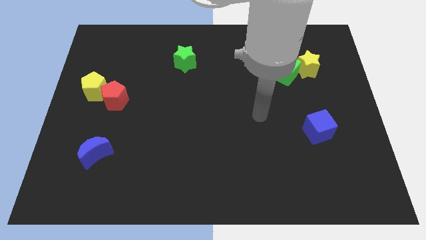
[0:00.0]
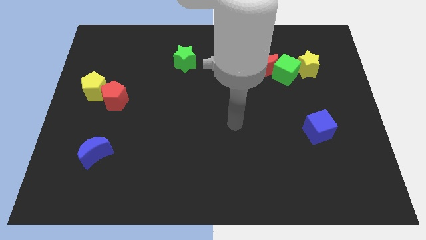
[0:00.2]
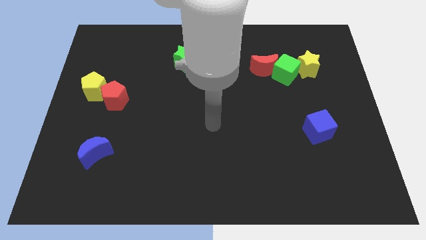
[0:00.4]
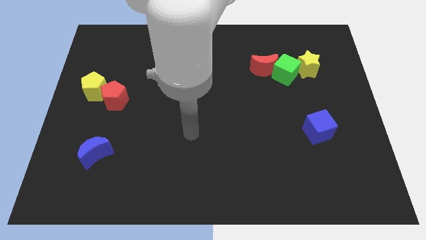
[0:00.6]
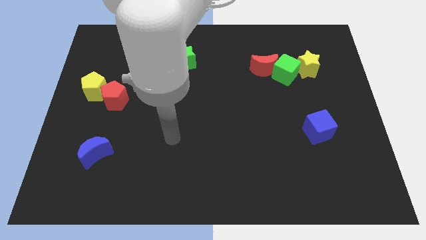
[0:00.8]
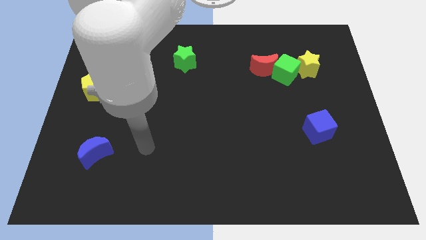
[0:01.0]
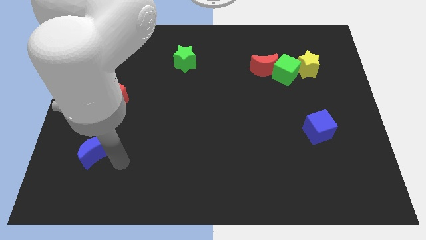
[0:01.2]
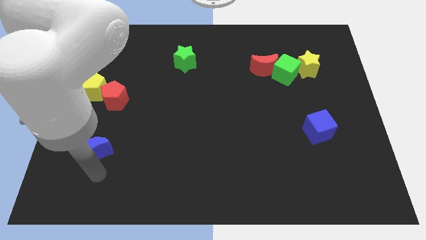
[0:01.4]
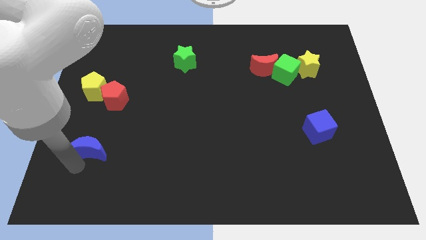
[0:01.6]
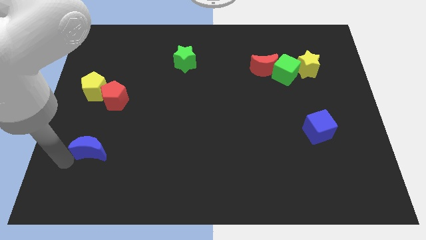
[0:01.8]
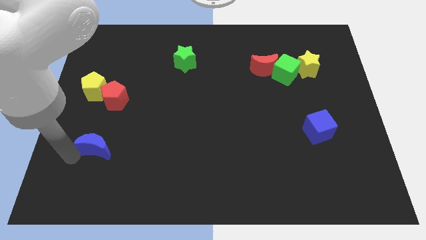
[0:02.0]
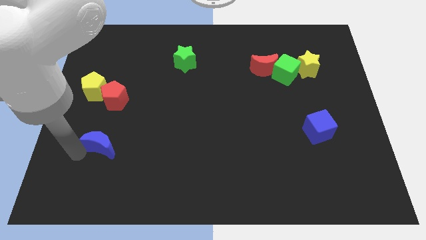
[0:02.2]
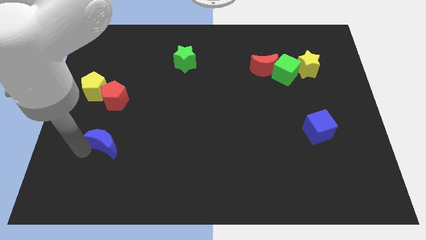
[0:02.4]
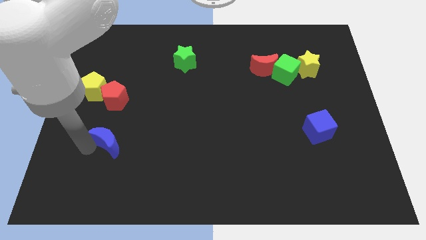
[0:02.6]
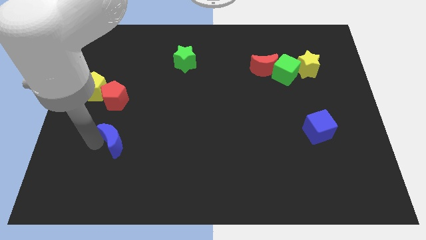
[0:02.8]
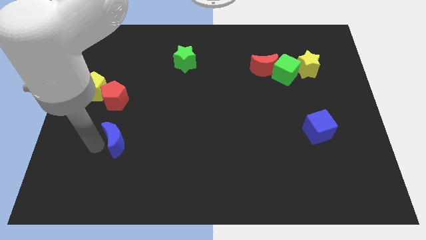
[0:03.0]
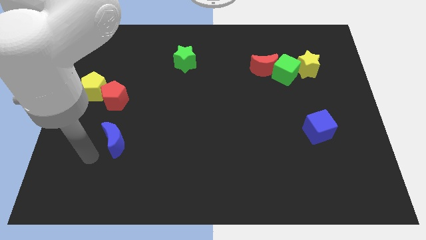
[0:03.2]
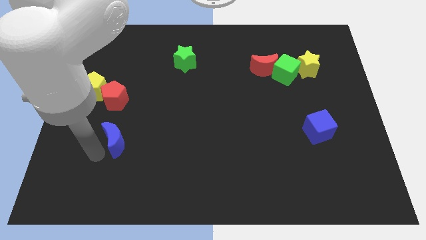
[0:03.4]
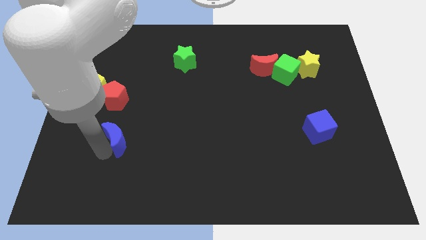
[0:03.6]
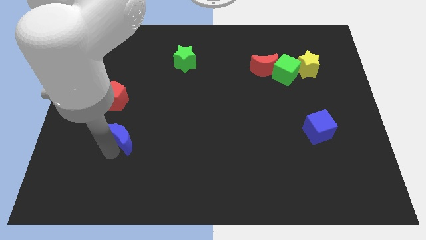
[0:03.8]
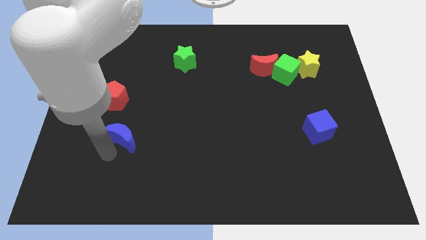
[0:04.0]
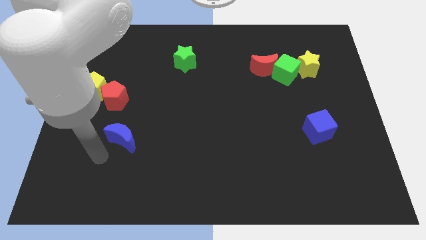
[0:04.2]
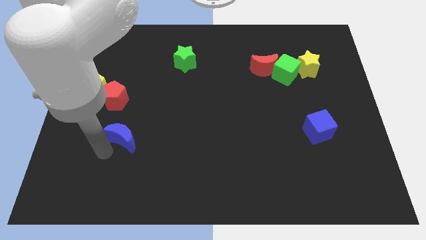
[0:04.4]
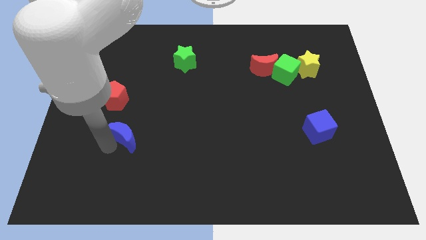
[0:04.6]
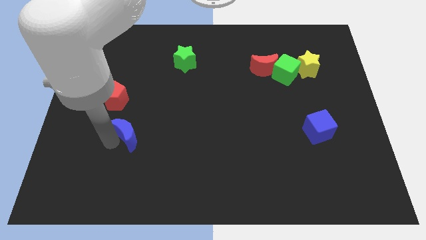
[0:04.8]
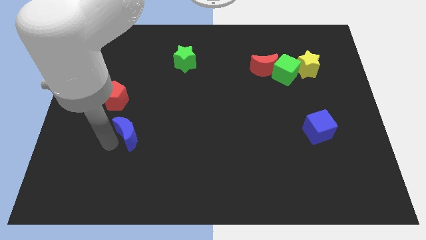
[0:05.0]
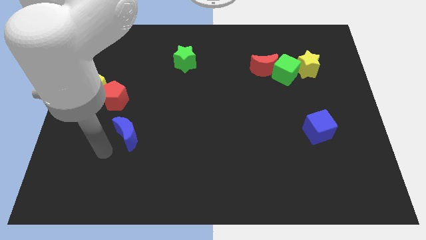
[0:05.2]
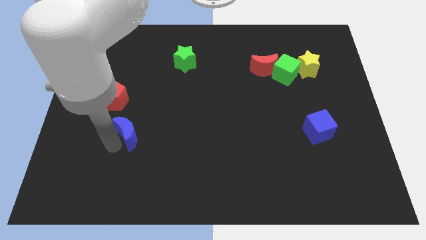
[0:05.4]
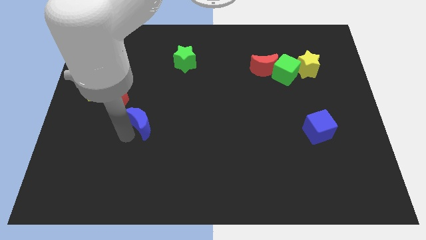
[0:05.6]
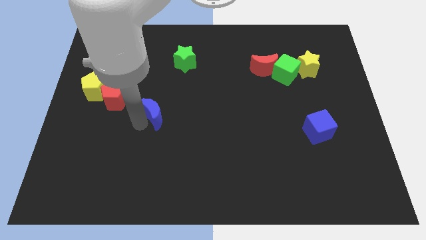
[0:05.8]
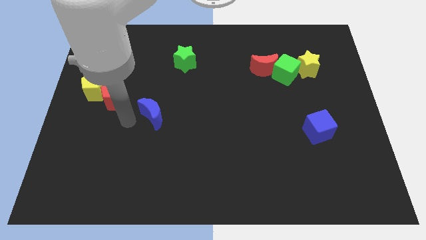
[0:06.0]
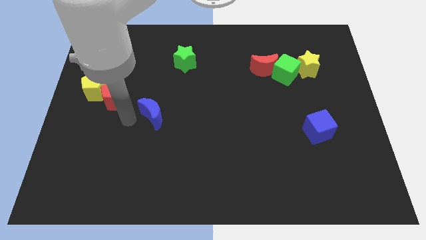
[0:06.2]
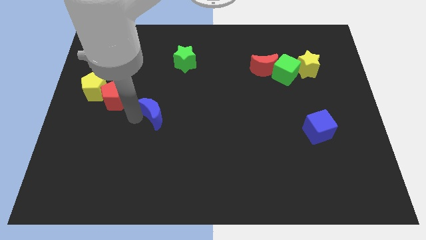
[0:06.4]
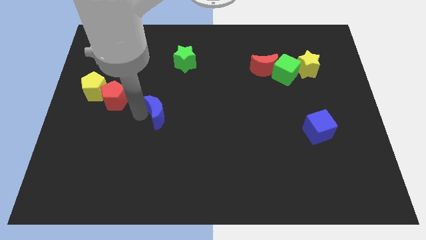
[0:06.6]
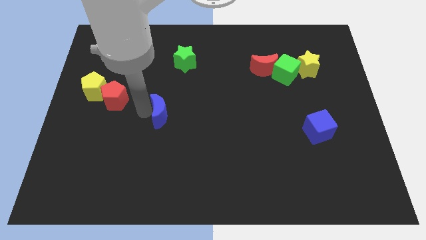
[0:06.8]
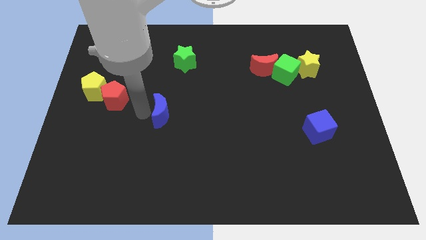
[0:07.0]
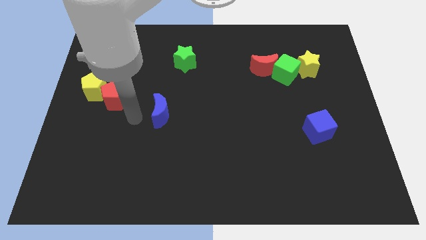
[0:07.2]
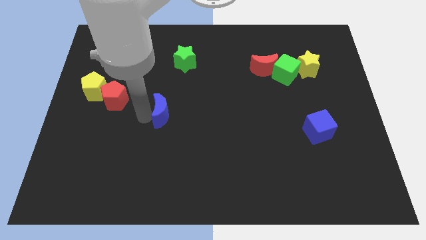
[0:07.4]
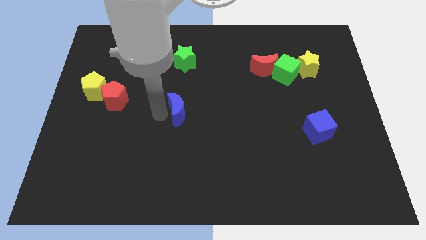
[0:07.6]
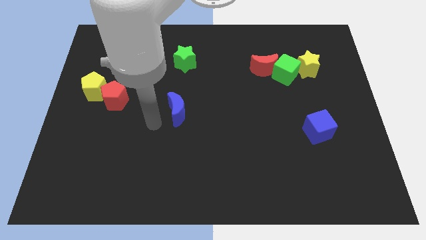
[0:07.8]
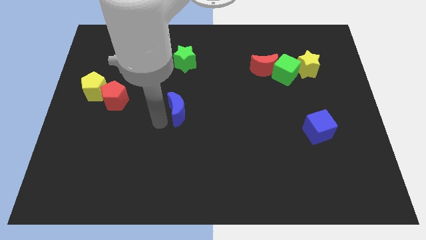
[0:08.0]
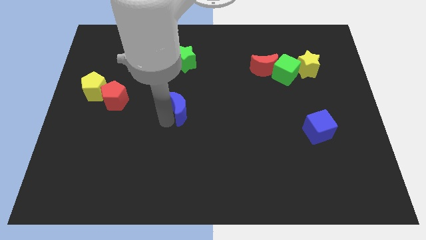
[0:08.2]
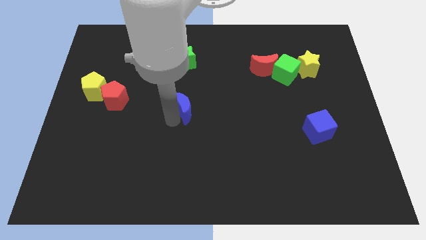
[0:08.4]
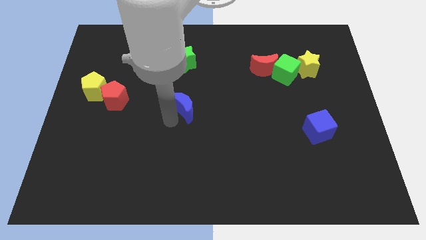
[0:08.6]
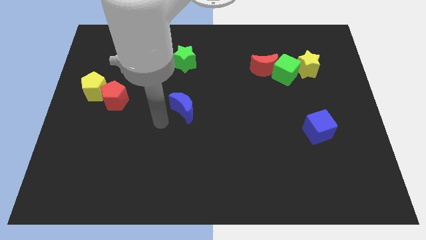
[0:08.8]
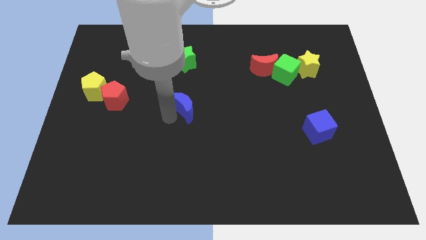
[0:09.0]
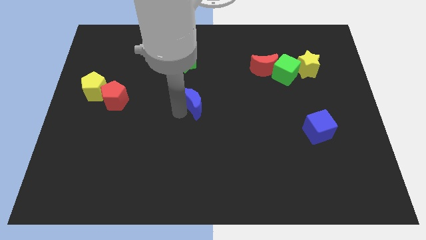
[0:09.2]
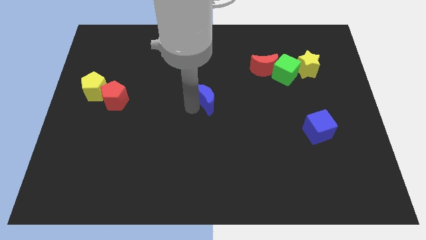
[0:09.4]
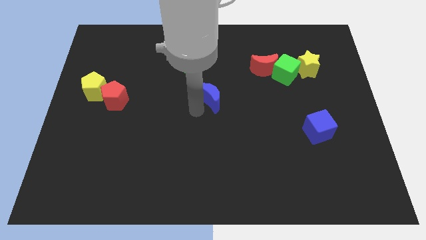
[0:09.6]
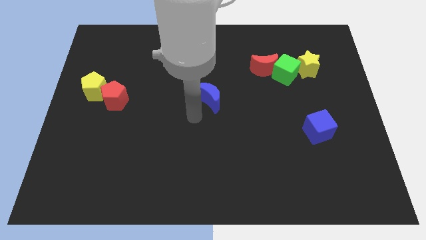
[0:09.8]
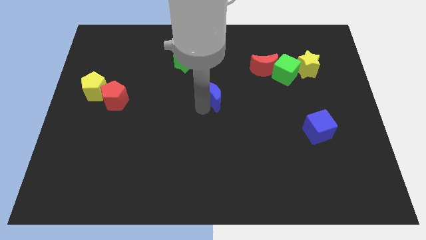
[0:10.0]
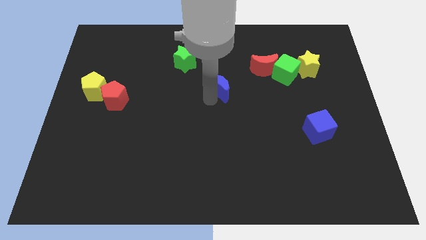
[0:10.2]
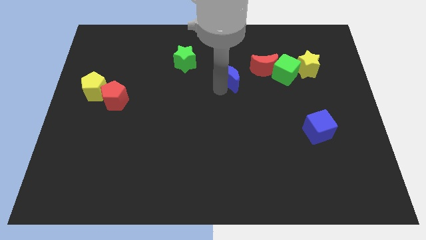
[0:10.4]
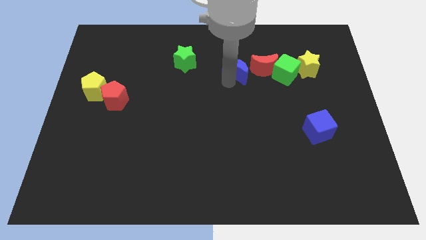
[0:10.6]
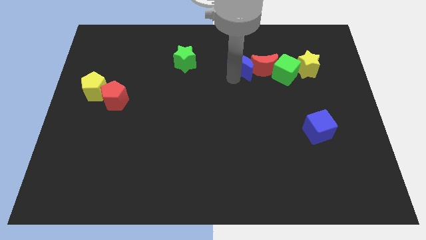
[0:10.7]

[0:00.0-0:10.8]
push the blue moon to the top left side of the red moon

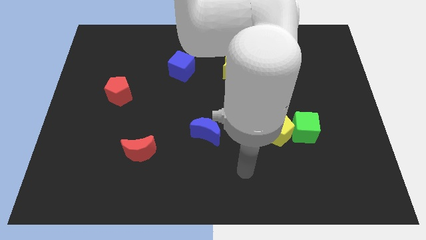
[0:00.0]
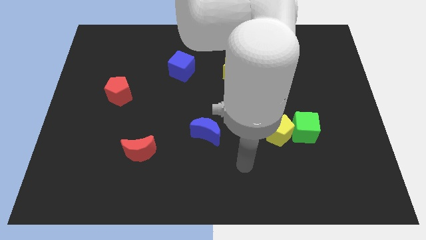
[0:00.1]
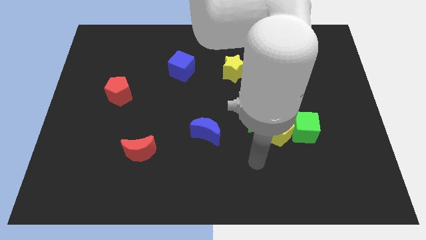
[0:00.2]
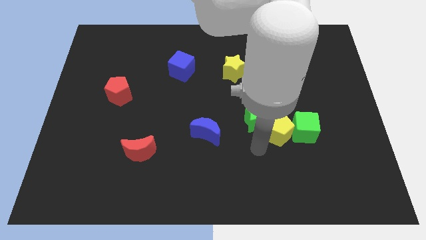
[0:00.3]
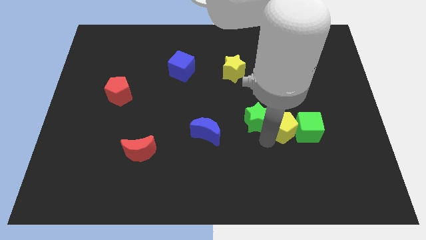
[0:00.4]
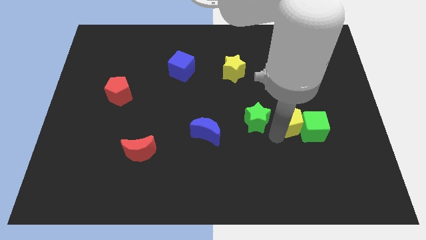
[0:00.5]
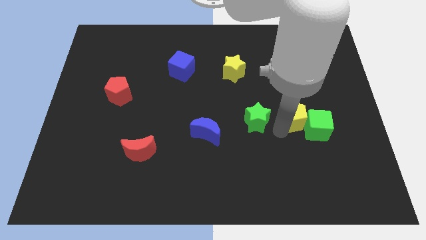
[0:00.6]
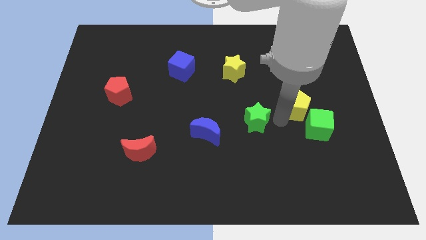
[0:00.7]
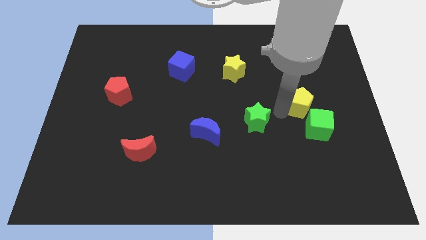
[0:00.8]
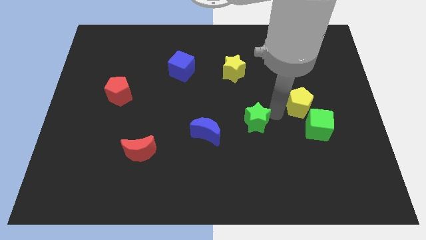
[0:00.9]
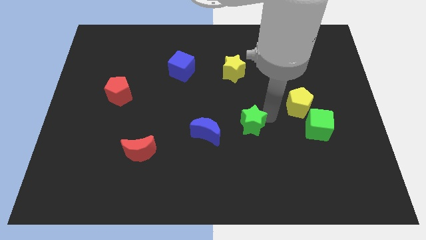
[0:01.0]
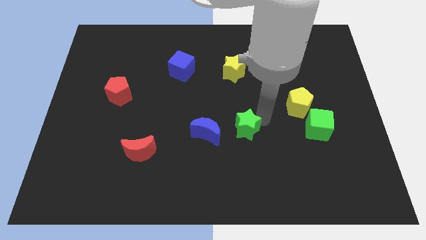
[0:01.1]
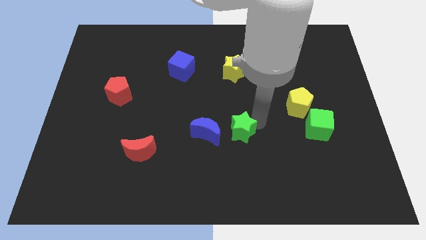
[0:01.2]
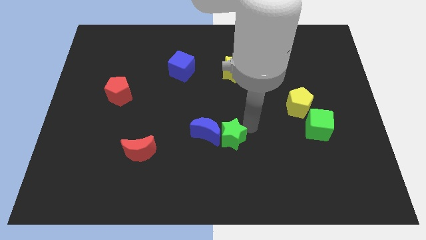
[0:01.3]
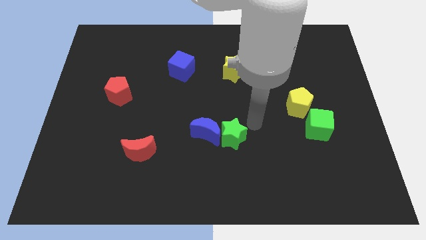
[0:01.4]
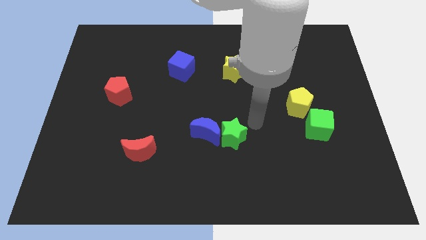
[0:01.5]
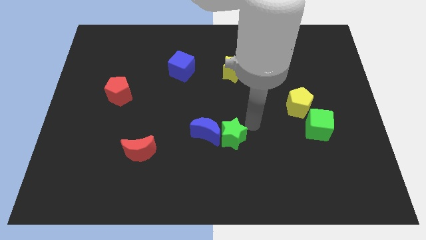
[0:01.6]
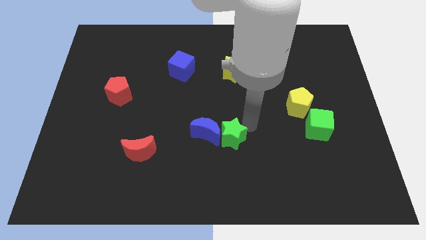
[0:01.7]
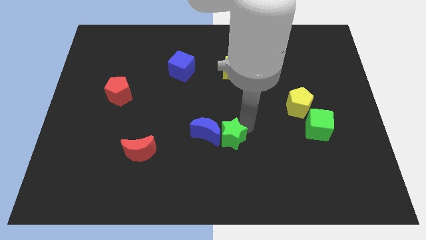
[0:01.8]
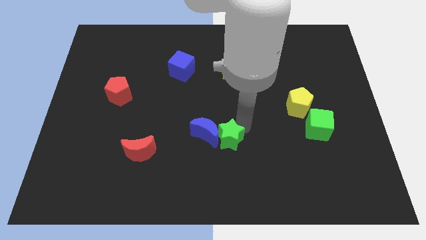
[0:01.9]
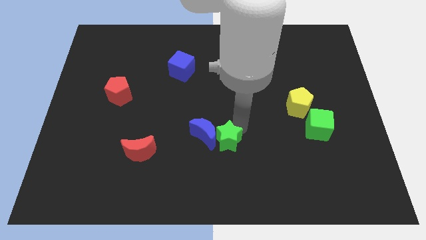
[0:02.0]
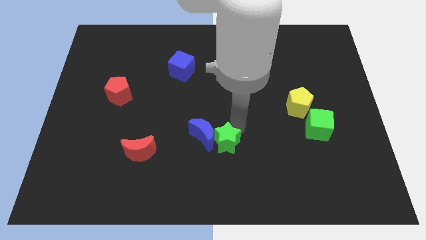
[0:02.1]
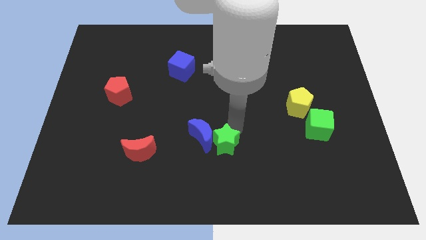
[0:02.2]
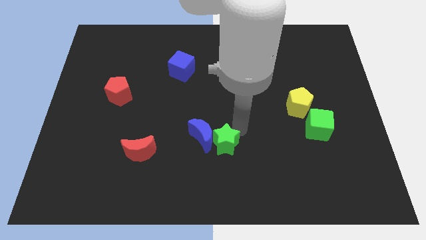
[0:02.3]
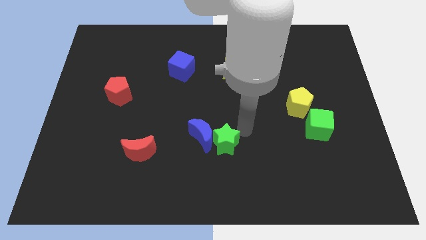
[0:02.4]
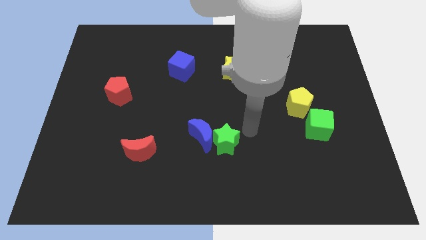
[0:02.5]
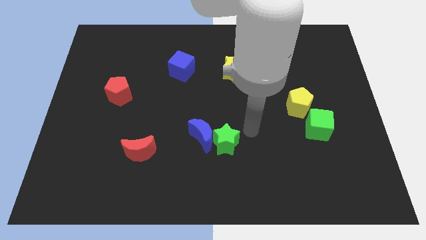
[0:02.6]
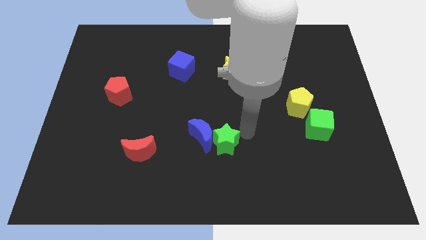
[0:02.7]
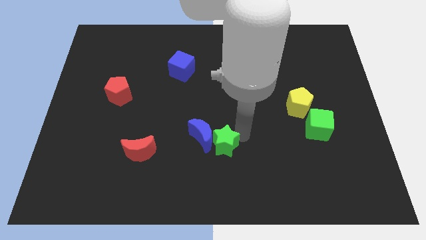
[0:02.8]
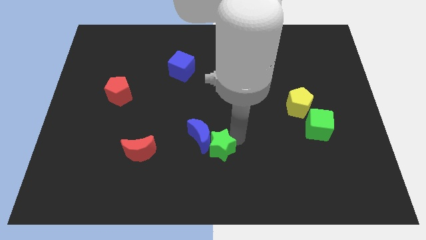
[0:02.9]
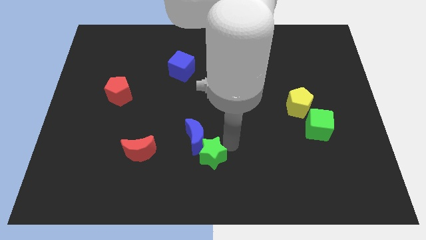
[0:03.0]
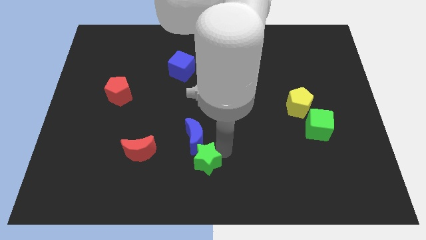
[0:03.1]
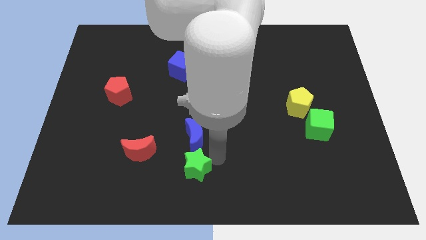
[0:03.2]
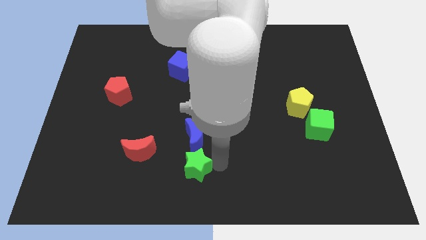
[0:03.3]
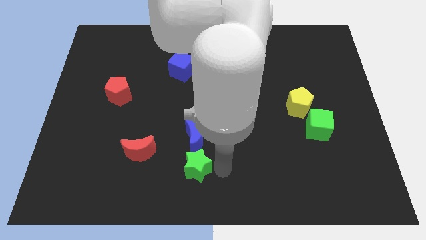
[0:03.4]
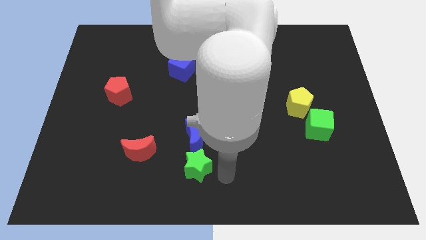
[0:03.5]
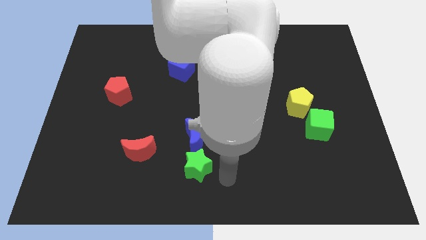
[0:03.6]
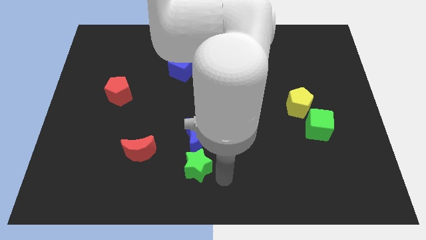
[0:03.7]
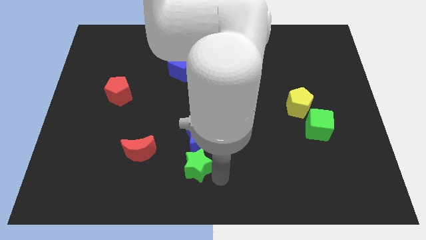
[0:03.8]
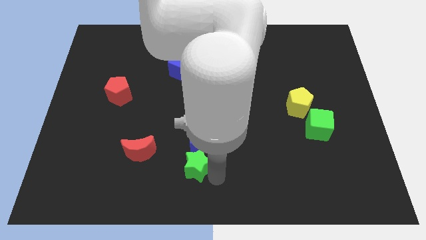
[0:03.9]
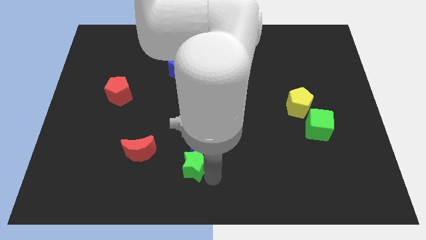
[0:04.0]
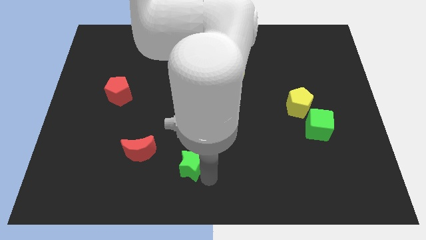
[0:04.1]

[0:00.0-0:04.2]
slide the green star to the bottom left of the blue moon
